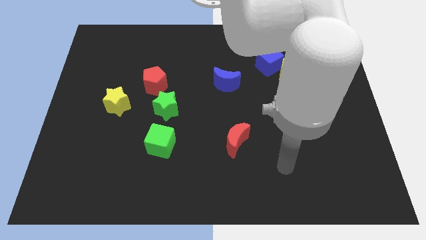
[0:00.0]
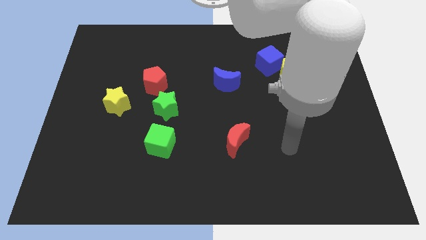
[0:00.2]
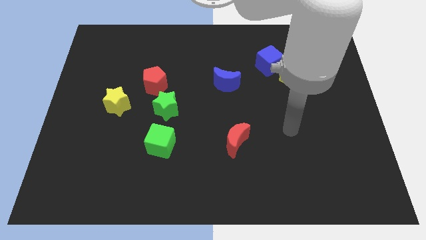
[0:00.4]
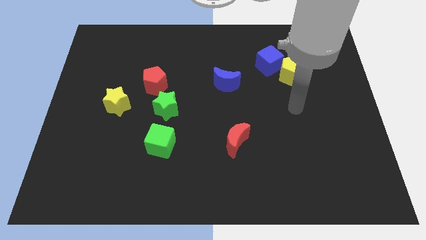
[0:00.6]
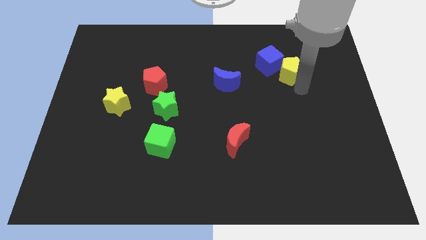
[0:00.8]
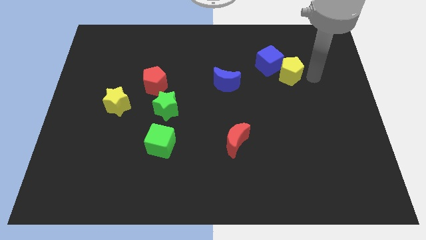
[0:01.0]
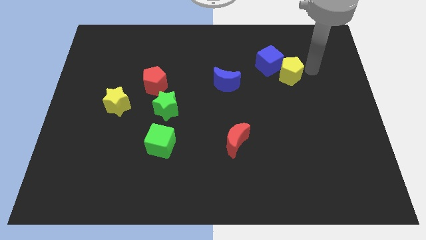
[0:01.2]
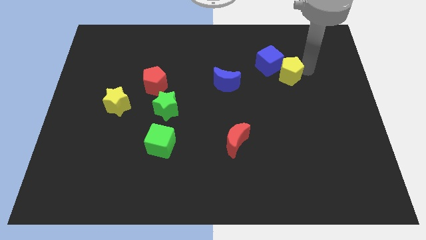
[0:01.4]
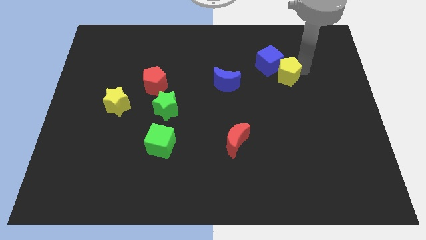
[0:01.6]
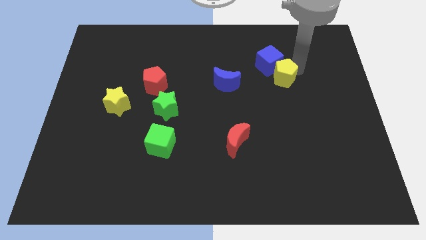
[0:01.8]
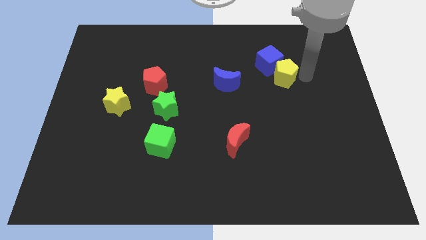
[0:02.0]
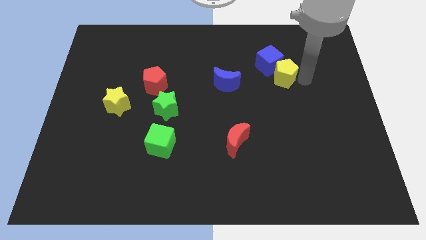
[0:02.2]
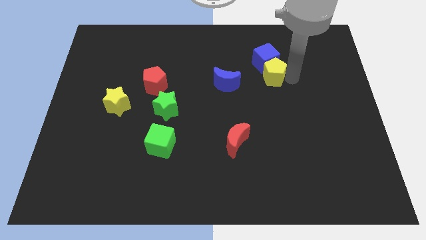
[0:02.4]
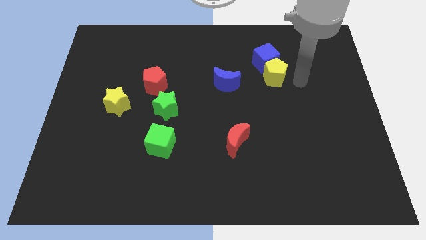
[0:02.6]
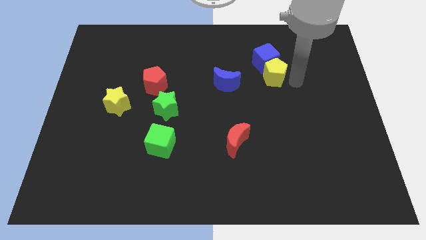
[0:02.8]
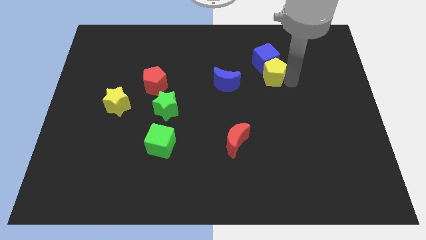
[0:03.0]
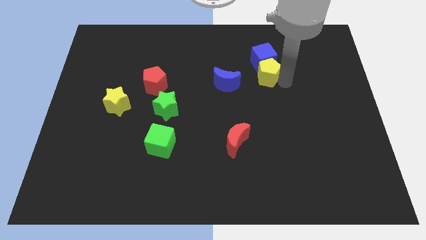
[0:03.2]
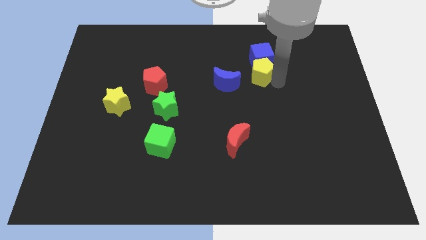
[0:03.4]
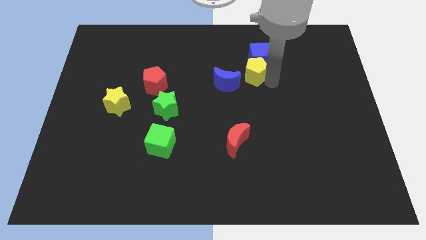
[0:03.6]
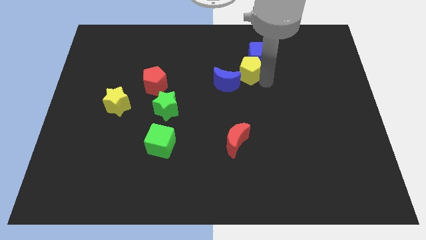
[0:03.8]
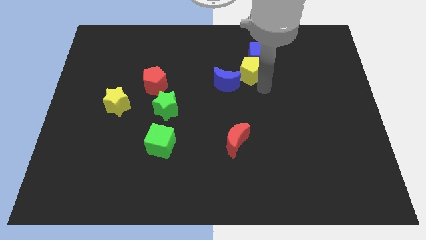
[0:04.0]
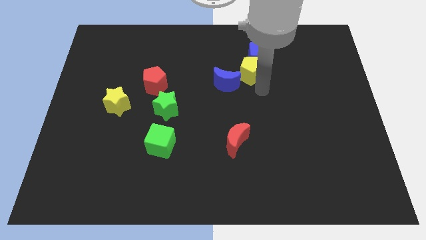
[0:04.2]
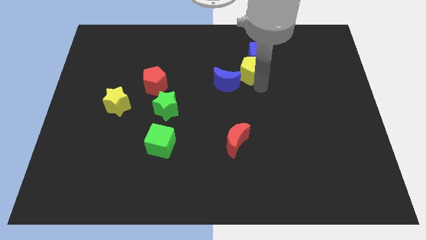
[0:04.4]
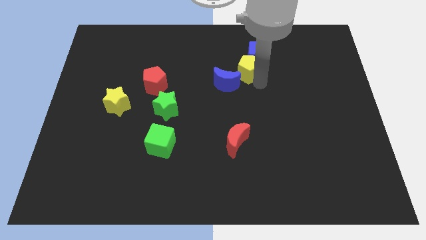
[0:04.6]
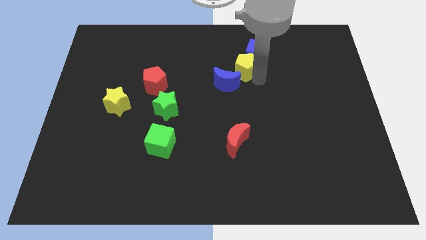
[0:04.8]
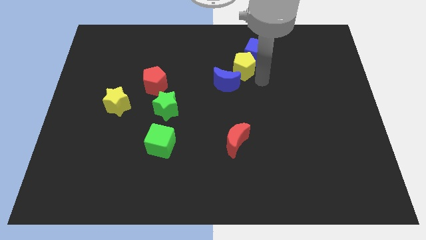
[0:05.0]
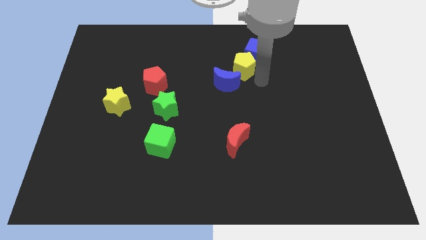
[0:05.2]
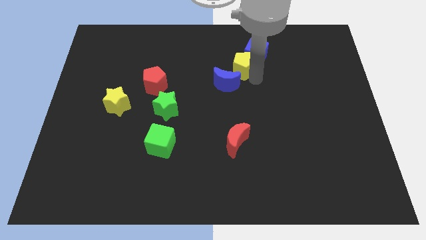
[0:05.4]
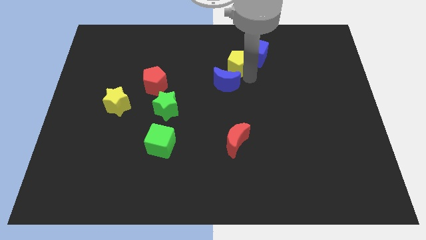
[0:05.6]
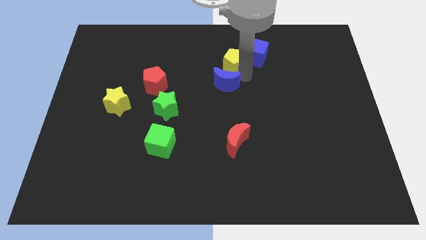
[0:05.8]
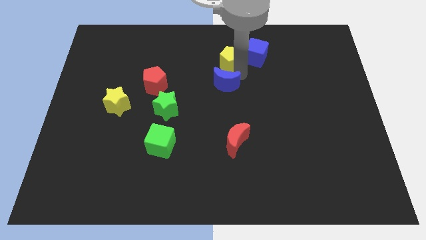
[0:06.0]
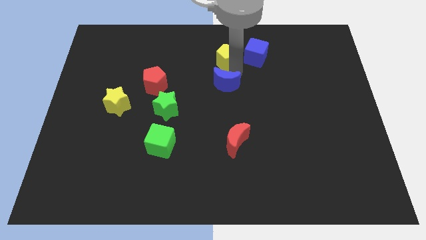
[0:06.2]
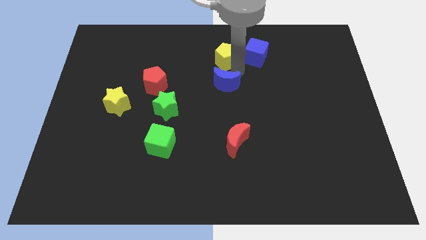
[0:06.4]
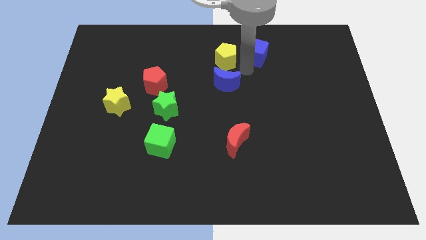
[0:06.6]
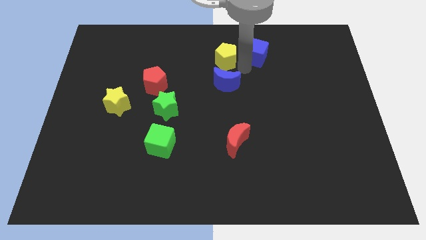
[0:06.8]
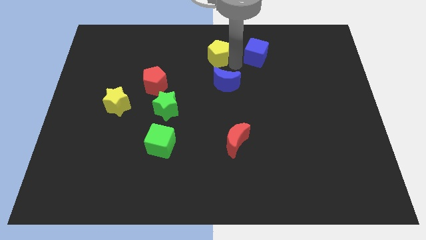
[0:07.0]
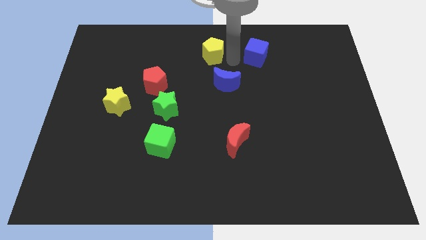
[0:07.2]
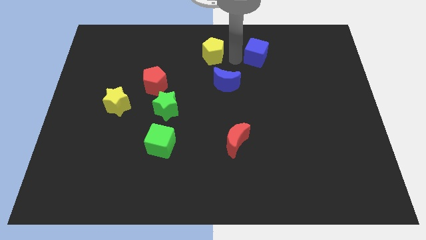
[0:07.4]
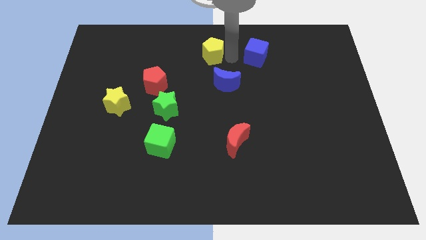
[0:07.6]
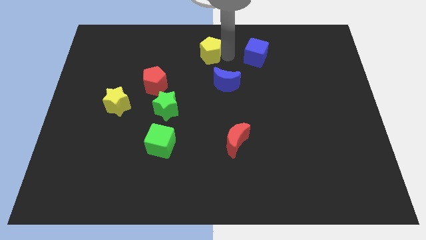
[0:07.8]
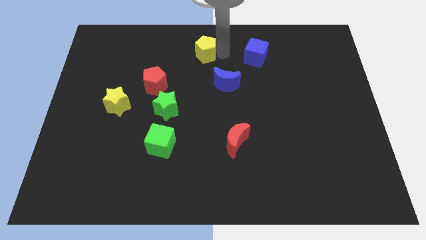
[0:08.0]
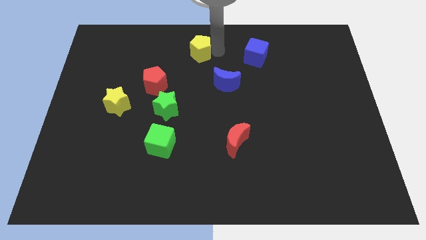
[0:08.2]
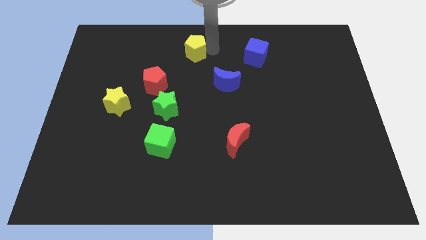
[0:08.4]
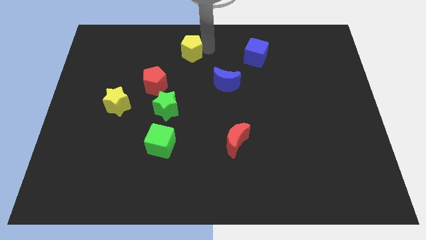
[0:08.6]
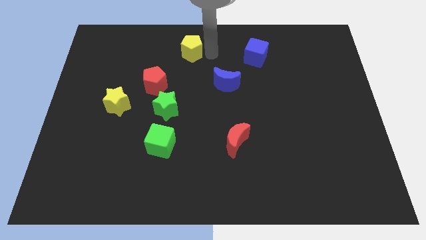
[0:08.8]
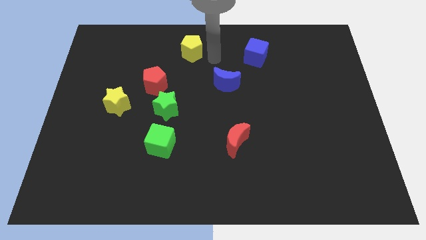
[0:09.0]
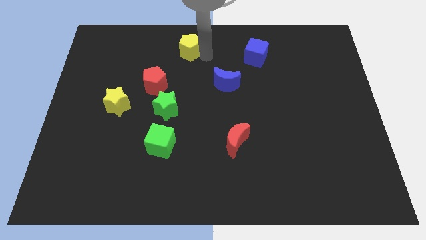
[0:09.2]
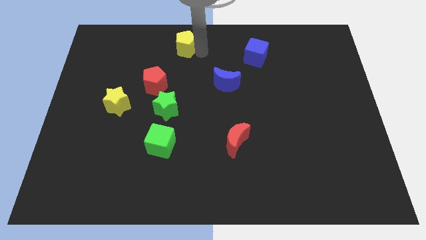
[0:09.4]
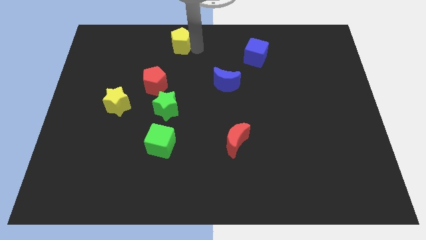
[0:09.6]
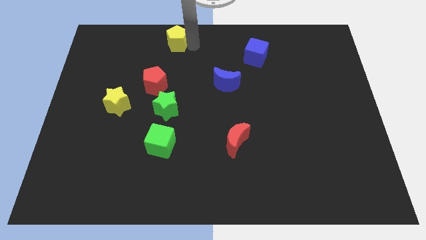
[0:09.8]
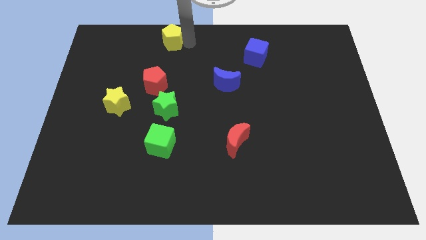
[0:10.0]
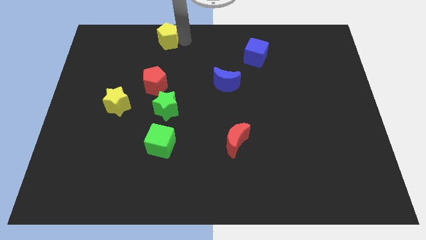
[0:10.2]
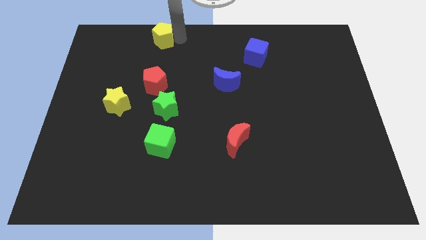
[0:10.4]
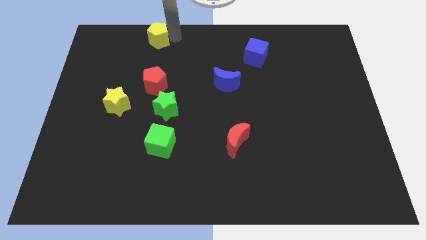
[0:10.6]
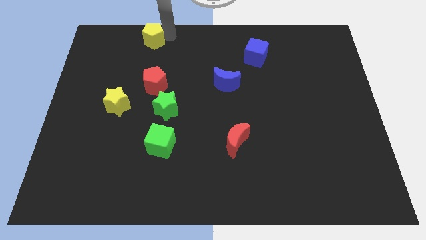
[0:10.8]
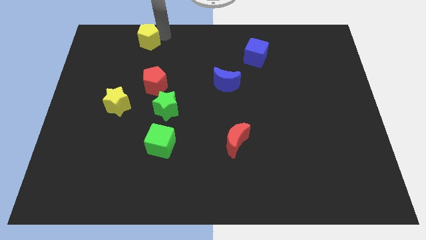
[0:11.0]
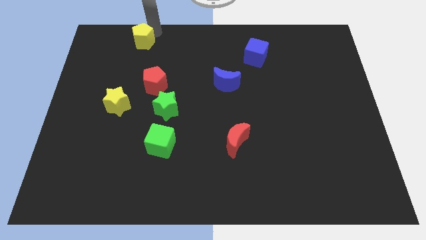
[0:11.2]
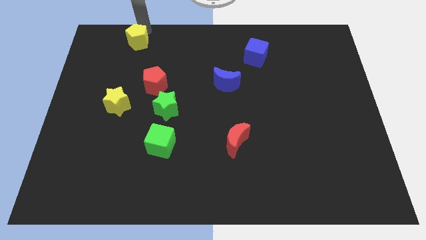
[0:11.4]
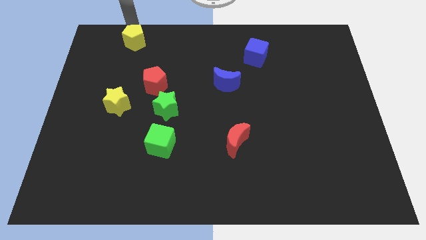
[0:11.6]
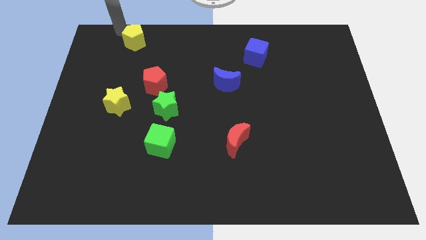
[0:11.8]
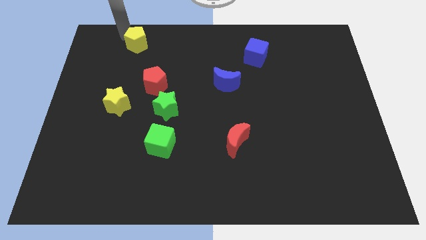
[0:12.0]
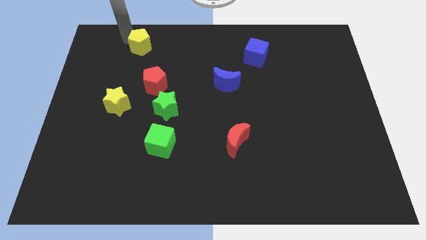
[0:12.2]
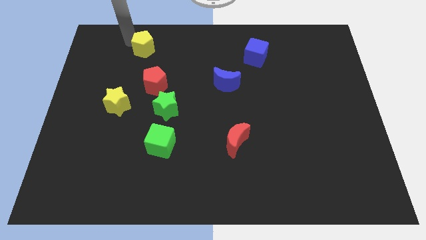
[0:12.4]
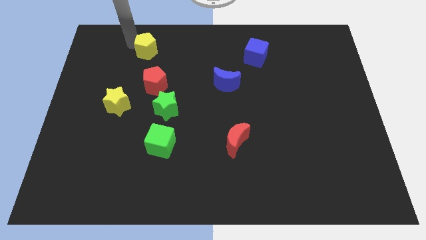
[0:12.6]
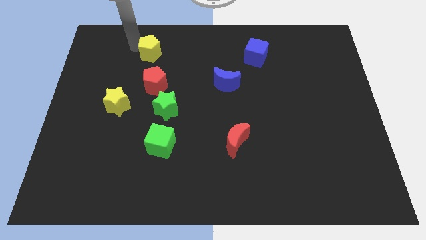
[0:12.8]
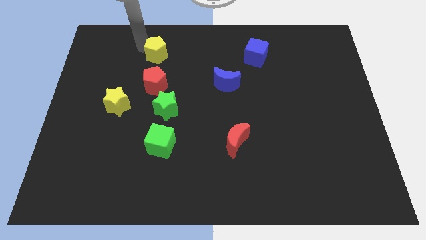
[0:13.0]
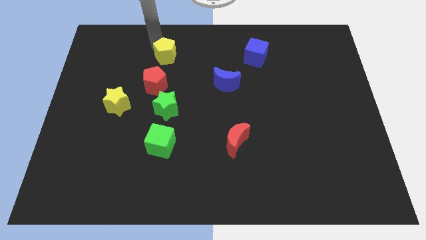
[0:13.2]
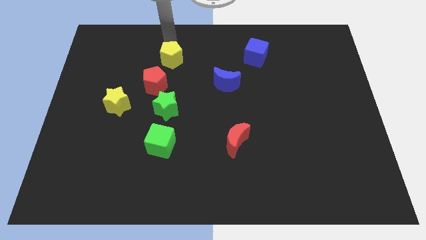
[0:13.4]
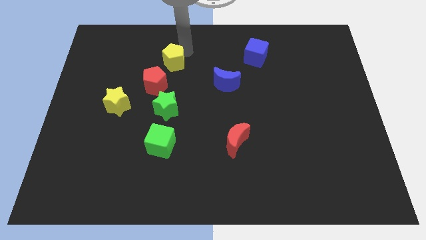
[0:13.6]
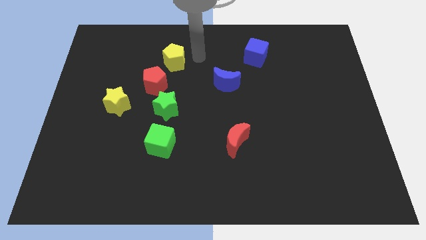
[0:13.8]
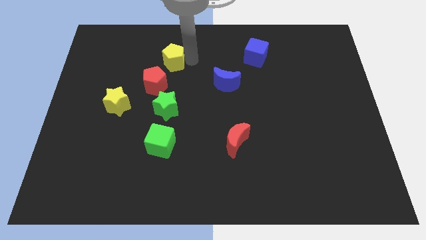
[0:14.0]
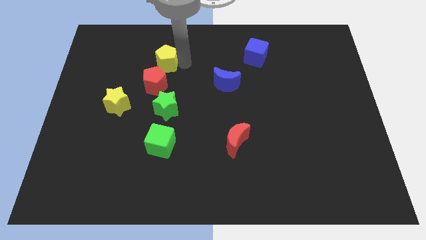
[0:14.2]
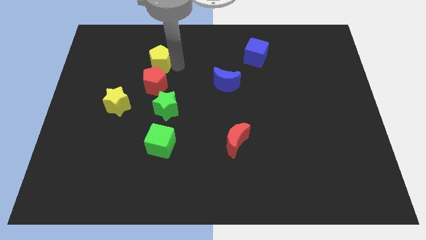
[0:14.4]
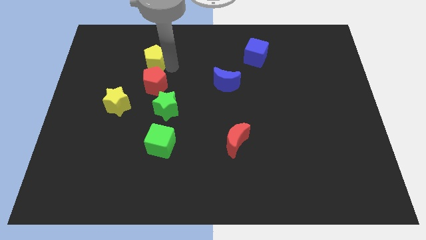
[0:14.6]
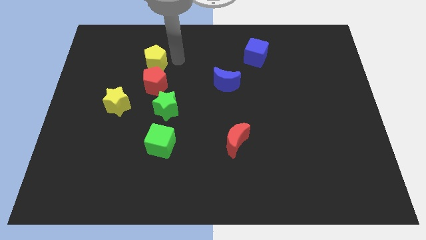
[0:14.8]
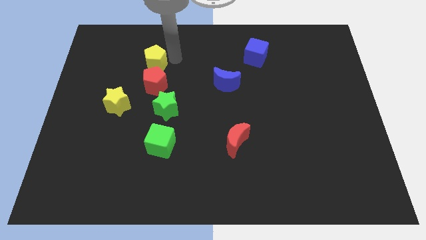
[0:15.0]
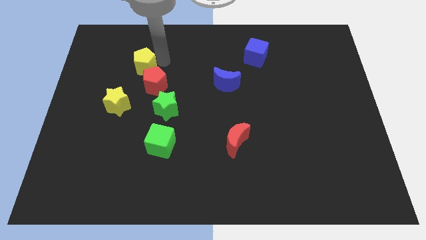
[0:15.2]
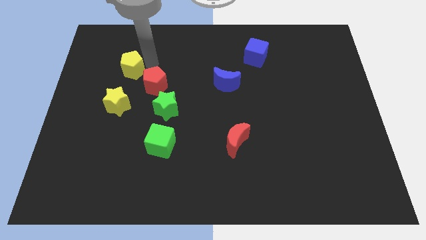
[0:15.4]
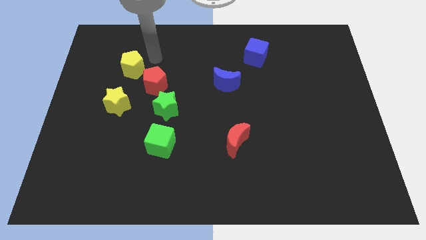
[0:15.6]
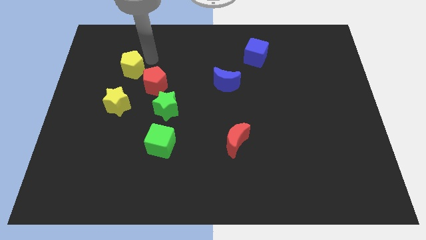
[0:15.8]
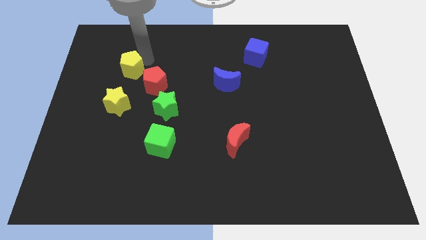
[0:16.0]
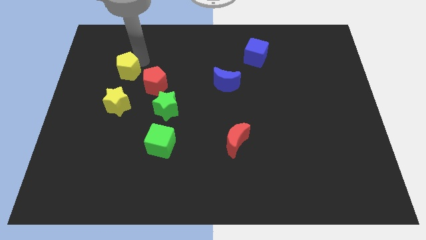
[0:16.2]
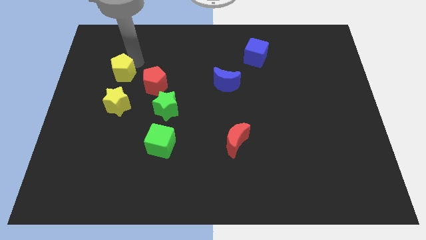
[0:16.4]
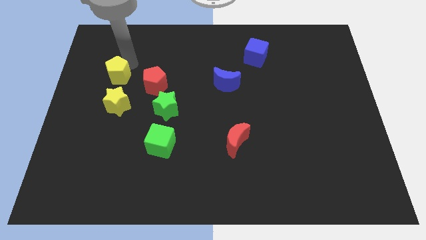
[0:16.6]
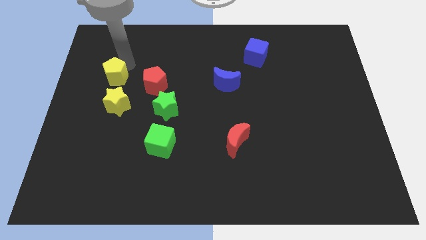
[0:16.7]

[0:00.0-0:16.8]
move the yellow pentagon to the top left side of the yellow star
